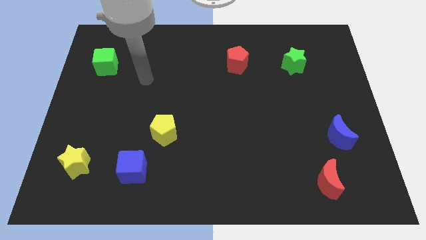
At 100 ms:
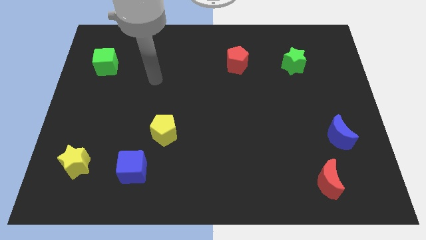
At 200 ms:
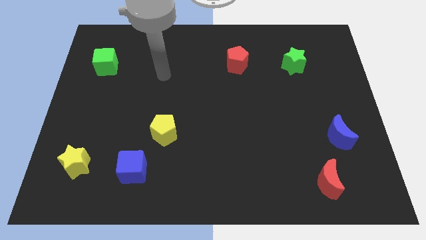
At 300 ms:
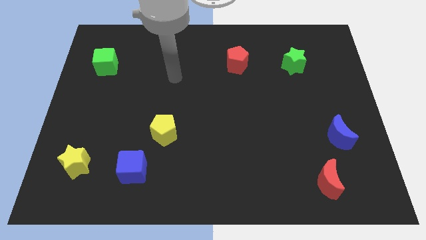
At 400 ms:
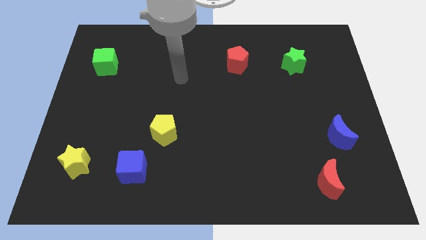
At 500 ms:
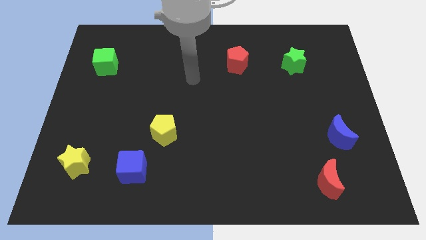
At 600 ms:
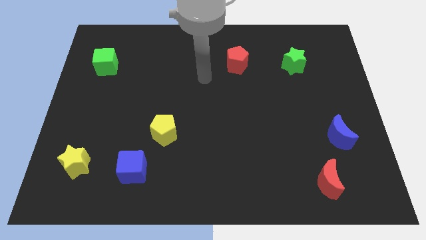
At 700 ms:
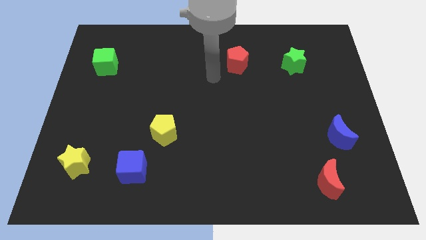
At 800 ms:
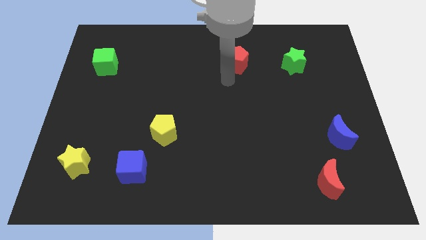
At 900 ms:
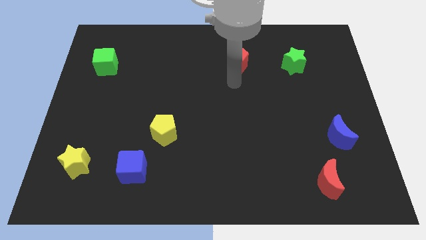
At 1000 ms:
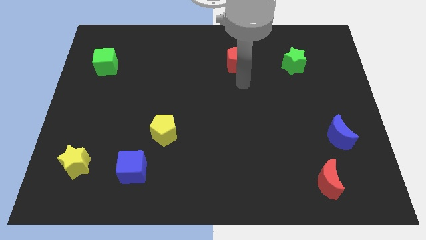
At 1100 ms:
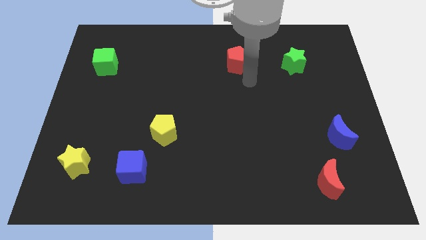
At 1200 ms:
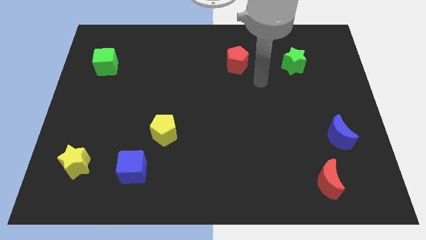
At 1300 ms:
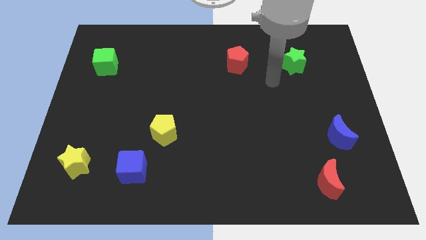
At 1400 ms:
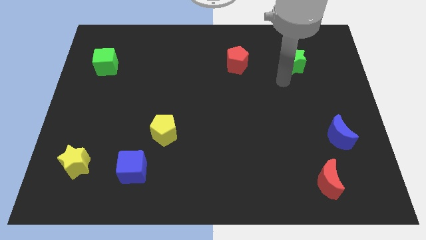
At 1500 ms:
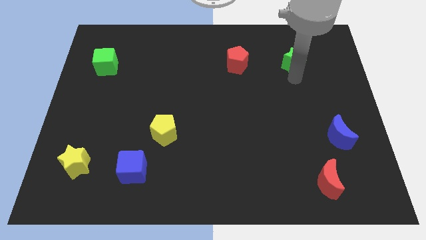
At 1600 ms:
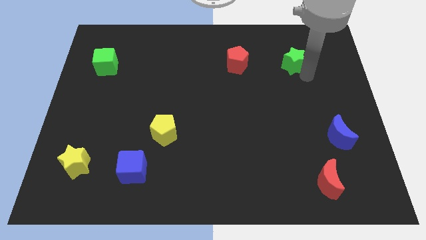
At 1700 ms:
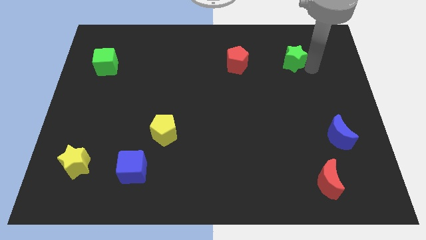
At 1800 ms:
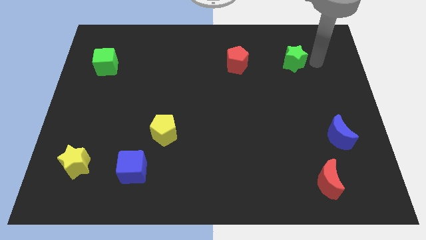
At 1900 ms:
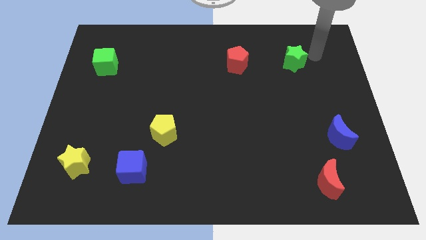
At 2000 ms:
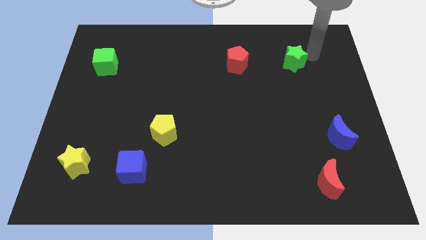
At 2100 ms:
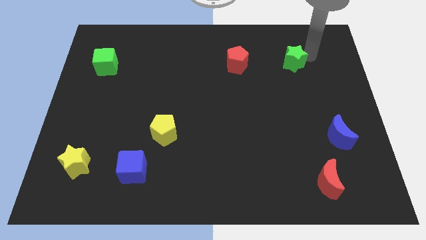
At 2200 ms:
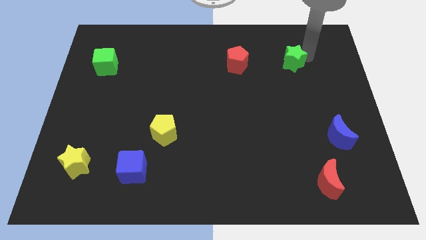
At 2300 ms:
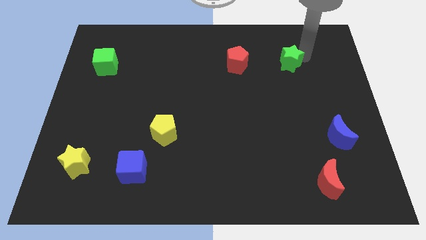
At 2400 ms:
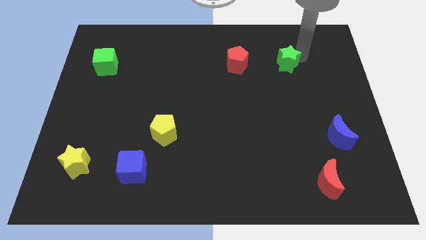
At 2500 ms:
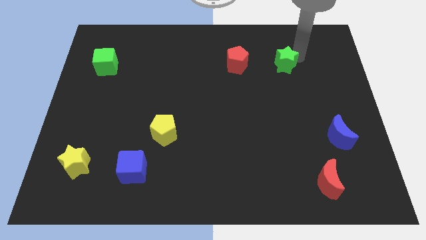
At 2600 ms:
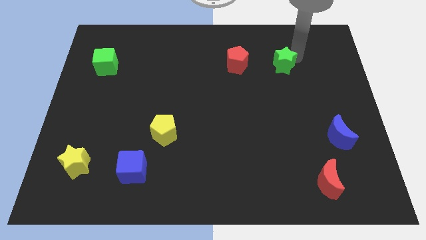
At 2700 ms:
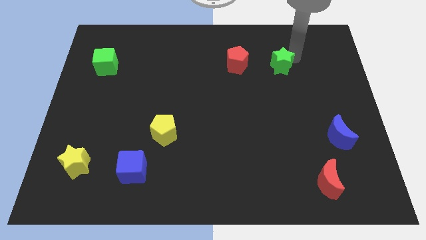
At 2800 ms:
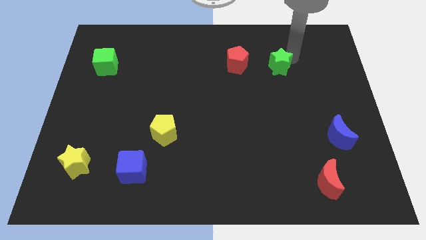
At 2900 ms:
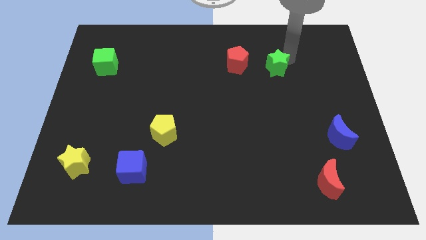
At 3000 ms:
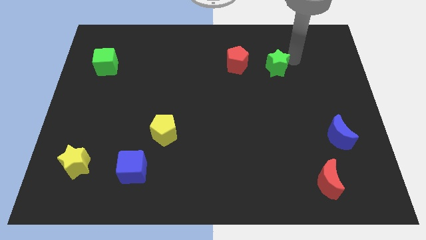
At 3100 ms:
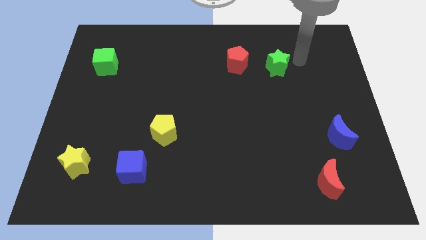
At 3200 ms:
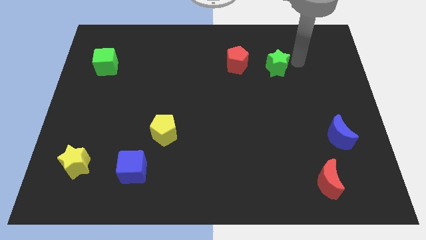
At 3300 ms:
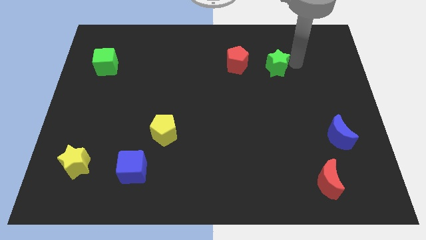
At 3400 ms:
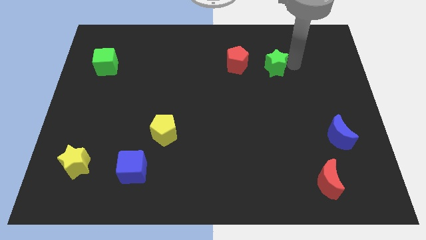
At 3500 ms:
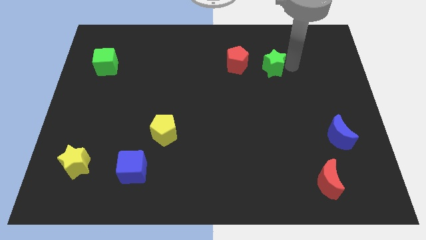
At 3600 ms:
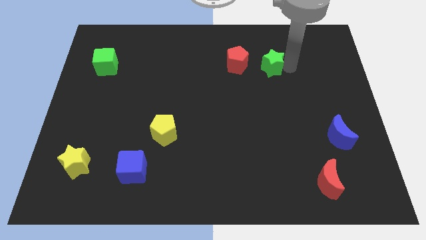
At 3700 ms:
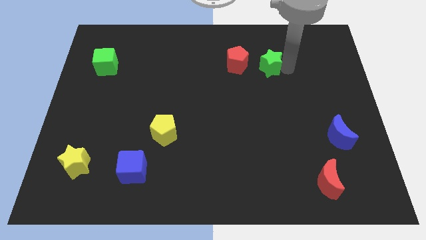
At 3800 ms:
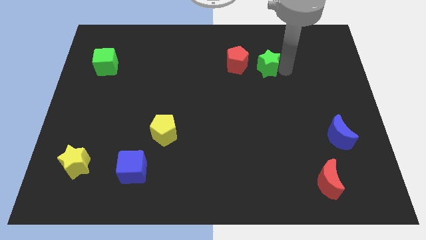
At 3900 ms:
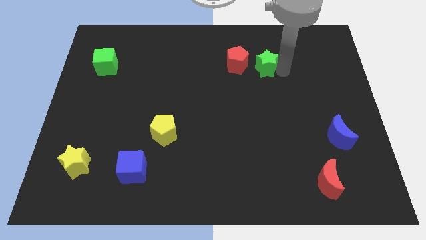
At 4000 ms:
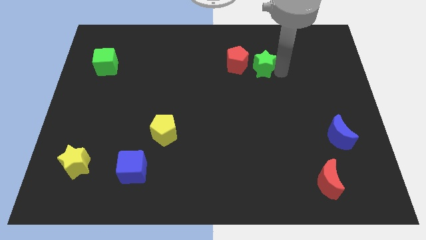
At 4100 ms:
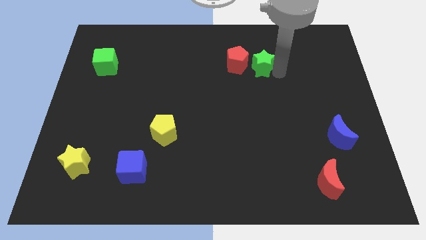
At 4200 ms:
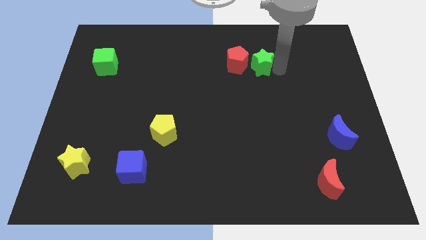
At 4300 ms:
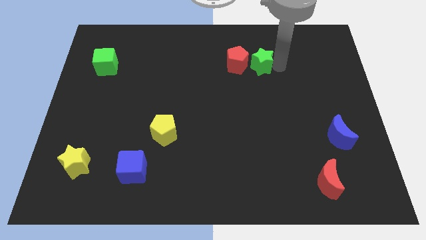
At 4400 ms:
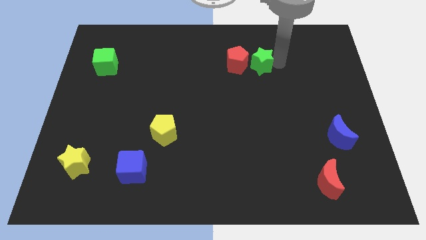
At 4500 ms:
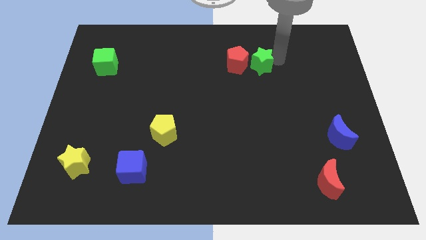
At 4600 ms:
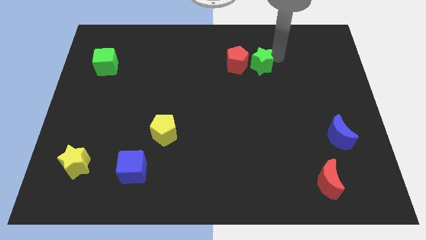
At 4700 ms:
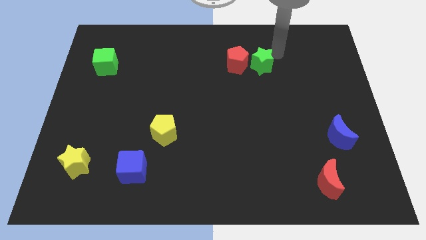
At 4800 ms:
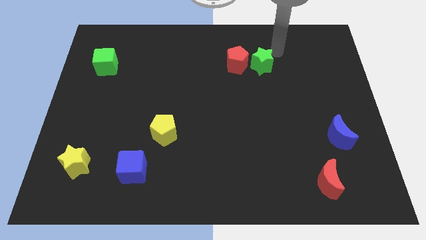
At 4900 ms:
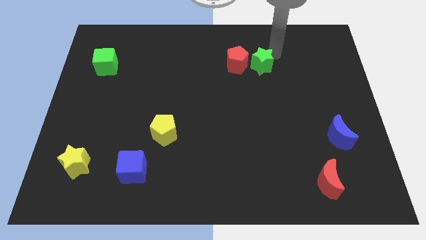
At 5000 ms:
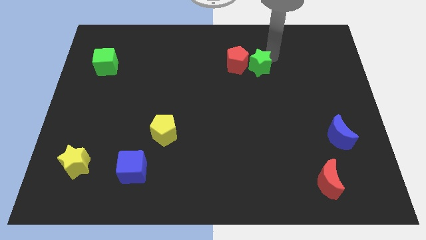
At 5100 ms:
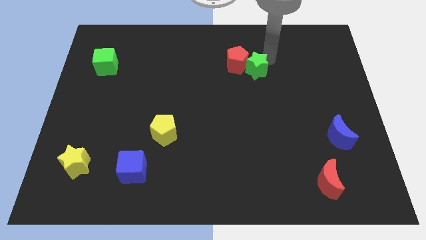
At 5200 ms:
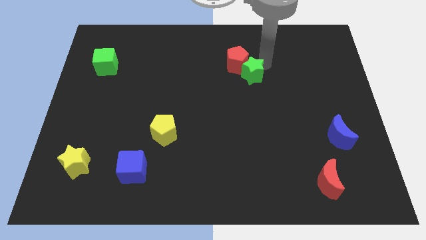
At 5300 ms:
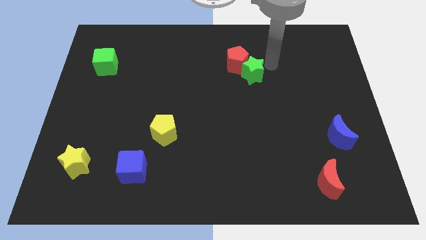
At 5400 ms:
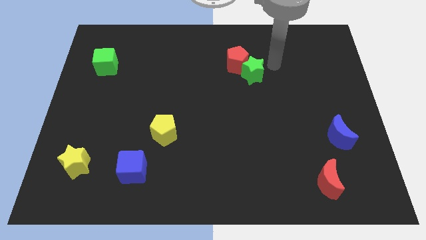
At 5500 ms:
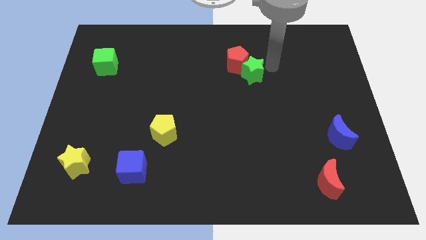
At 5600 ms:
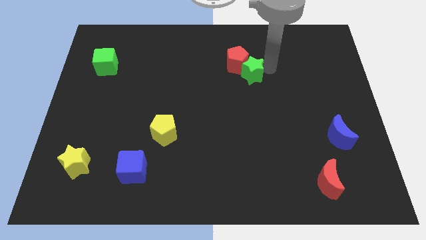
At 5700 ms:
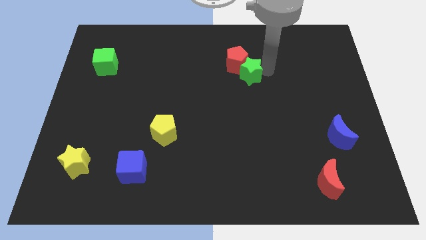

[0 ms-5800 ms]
slide the green star to the center of the board

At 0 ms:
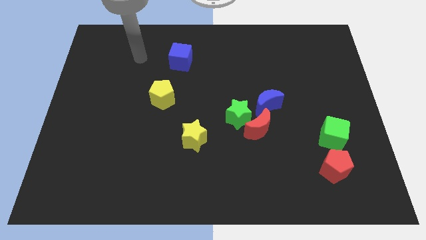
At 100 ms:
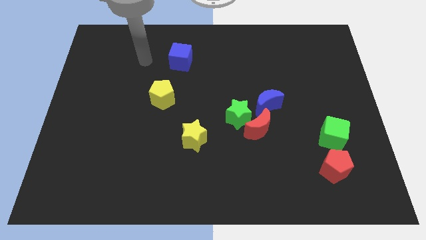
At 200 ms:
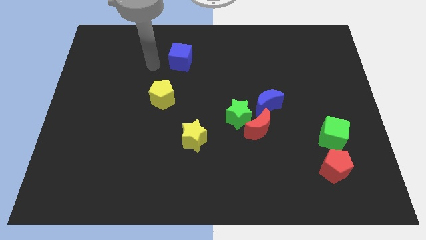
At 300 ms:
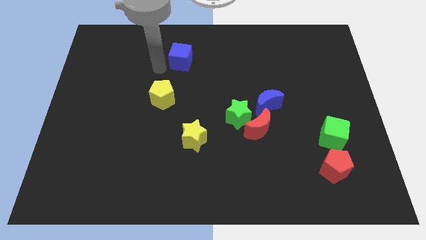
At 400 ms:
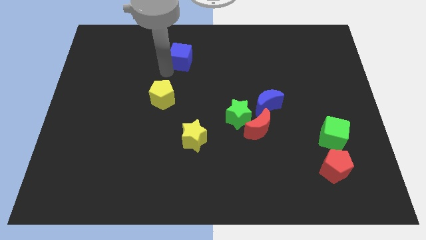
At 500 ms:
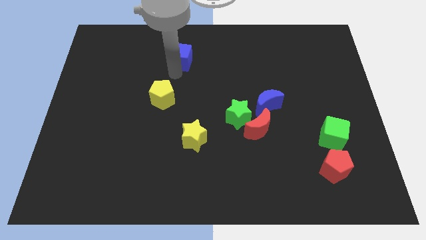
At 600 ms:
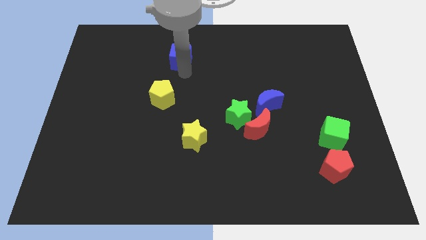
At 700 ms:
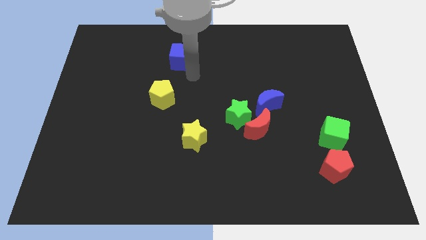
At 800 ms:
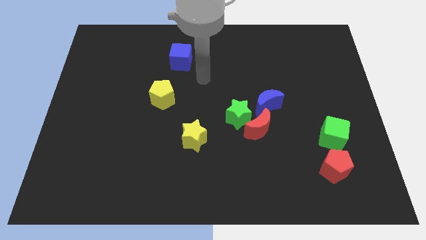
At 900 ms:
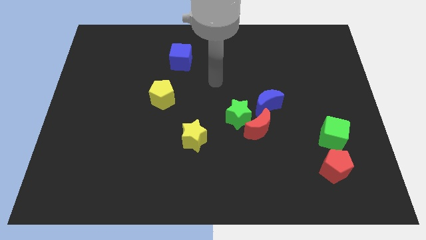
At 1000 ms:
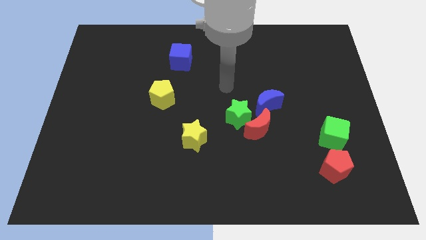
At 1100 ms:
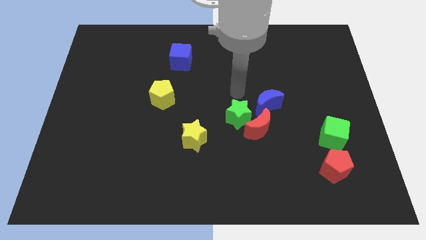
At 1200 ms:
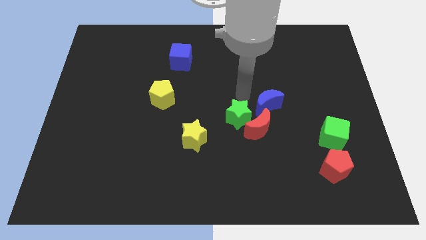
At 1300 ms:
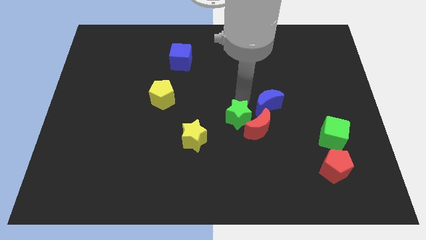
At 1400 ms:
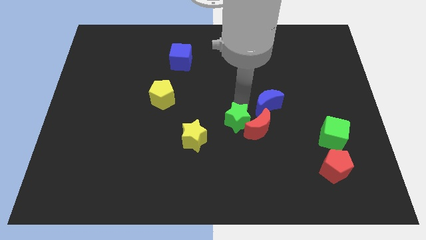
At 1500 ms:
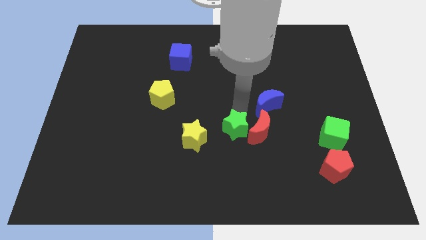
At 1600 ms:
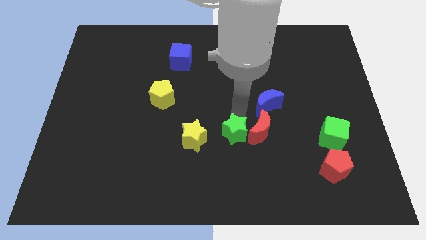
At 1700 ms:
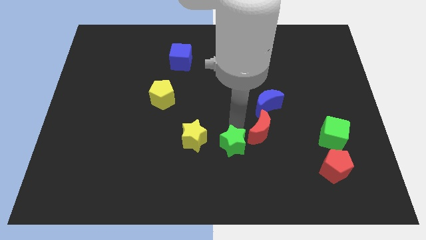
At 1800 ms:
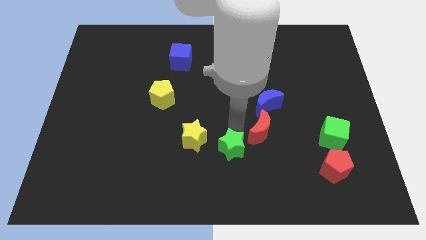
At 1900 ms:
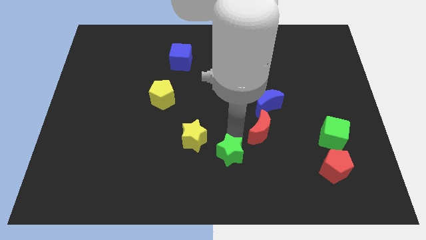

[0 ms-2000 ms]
slide the green star to the bottom side
